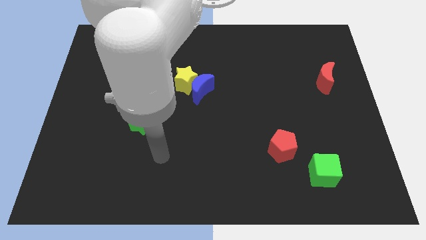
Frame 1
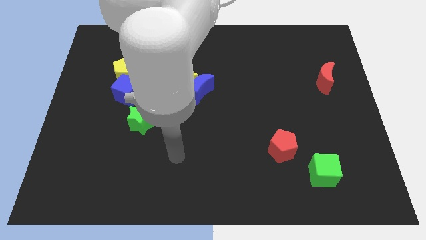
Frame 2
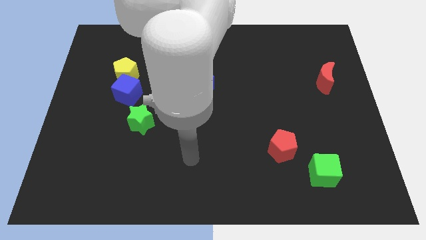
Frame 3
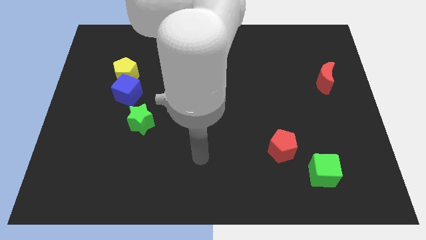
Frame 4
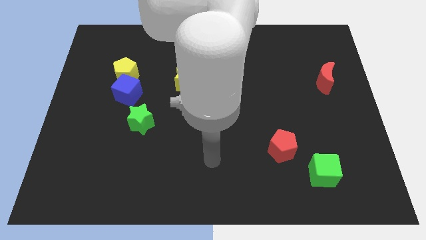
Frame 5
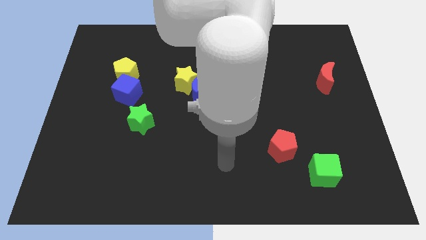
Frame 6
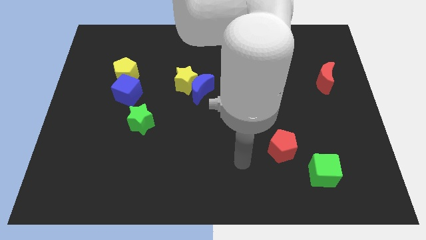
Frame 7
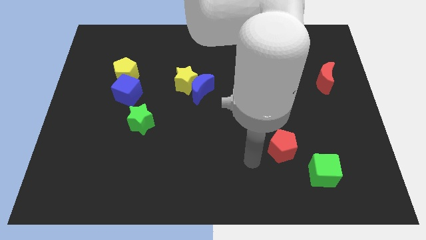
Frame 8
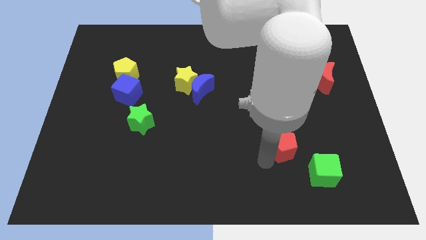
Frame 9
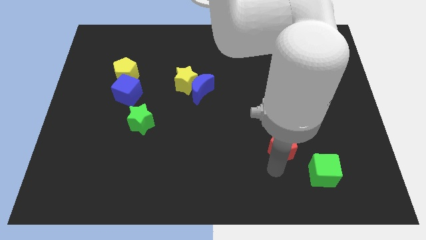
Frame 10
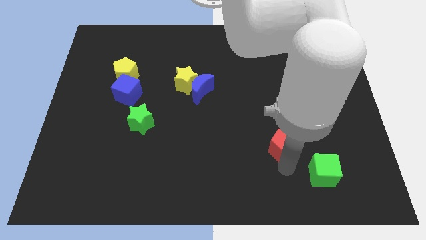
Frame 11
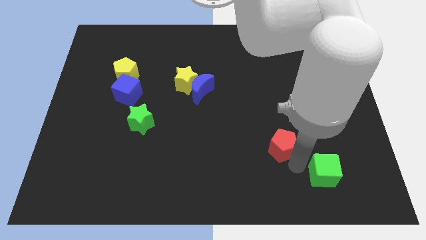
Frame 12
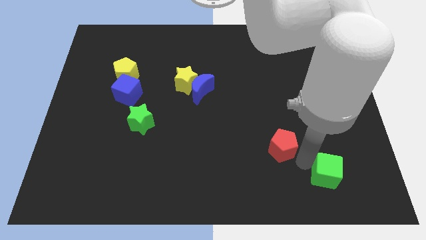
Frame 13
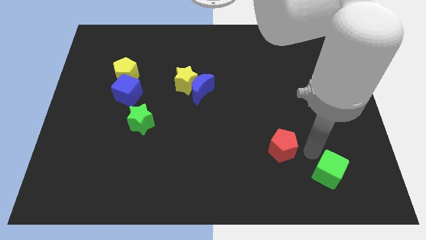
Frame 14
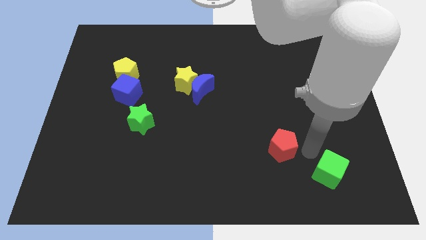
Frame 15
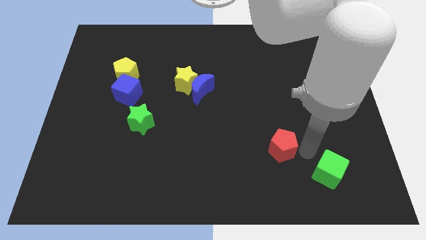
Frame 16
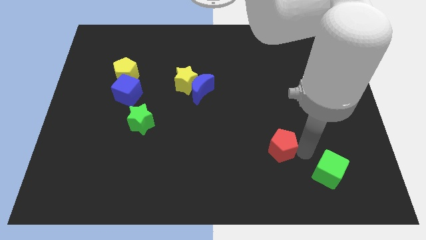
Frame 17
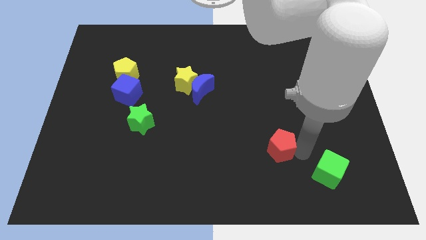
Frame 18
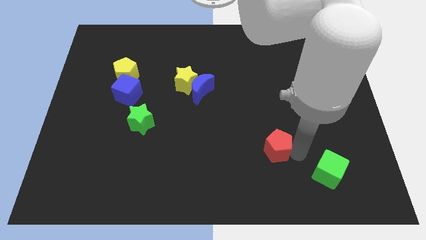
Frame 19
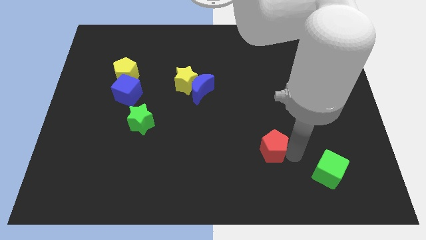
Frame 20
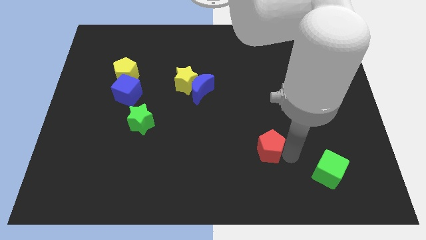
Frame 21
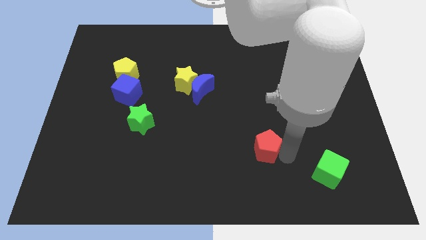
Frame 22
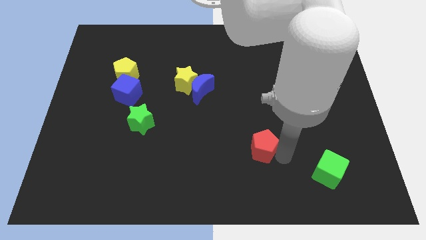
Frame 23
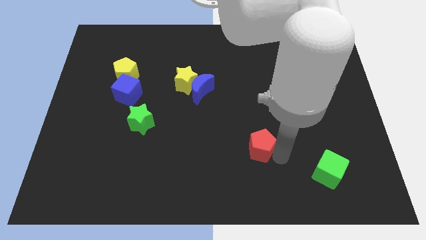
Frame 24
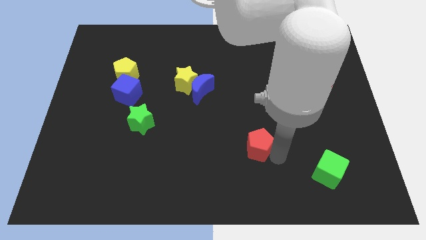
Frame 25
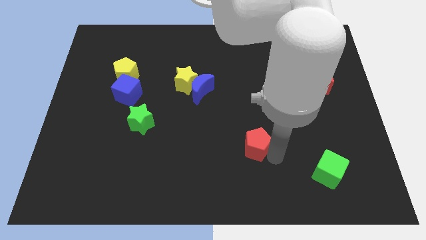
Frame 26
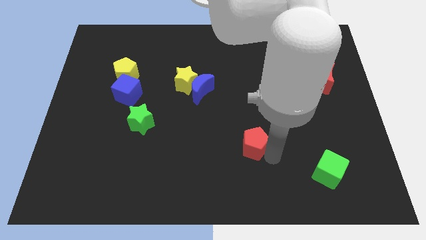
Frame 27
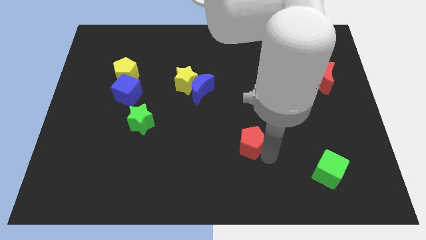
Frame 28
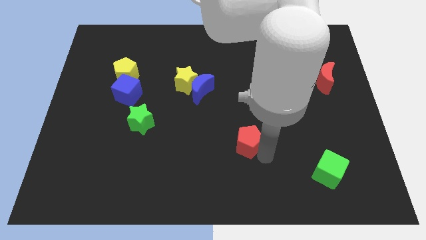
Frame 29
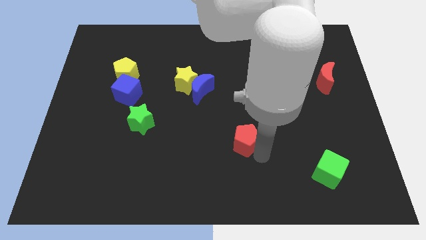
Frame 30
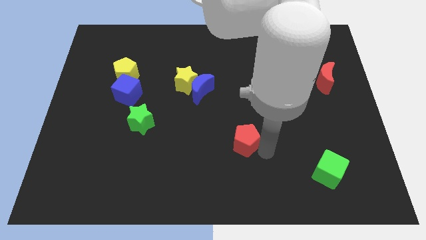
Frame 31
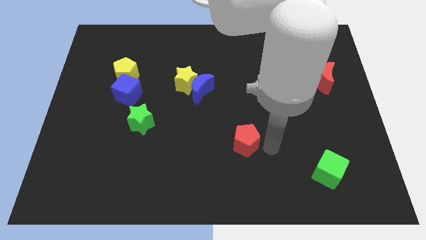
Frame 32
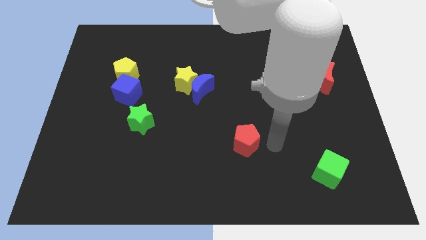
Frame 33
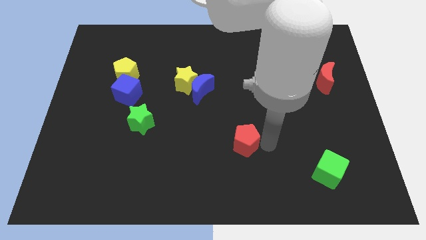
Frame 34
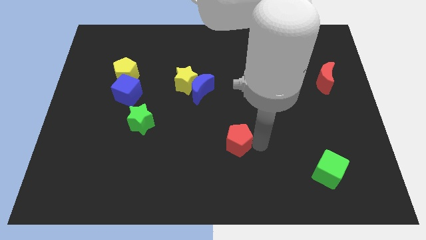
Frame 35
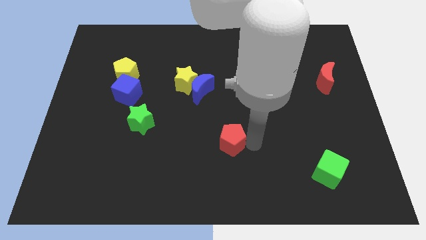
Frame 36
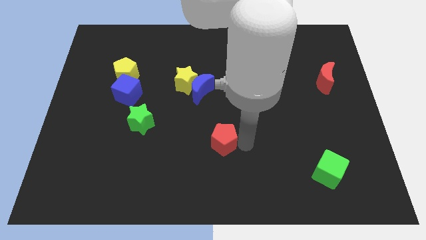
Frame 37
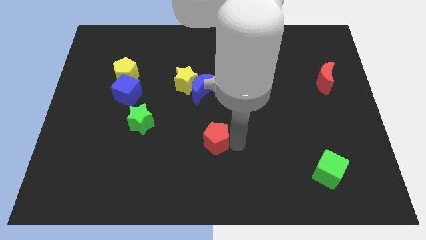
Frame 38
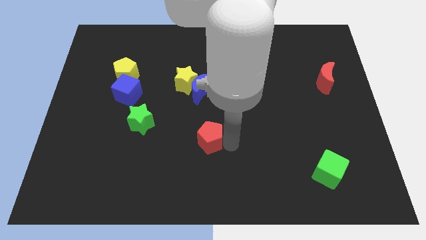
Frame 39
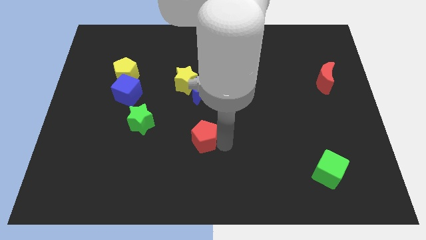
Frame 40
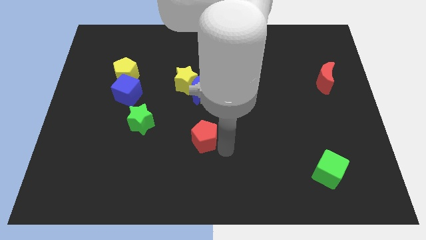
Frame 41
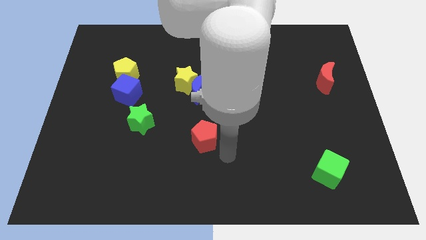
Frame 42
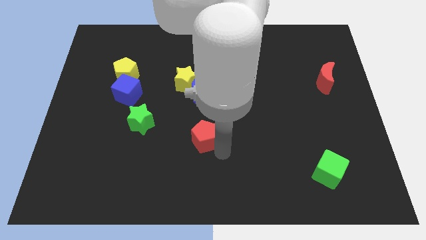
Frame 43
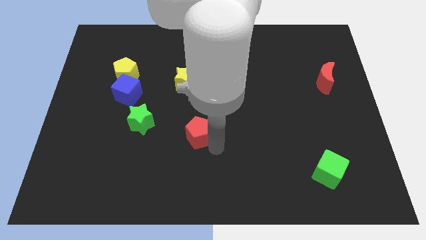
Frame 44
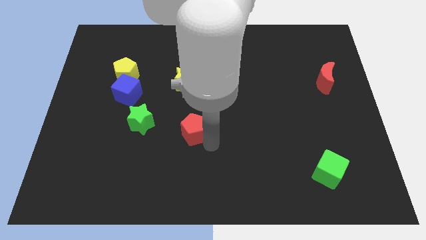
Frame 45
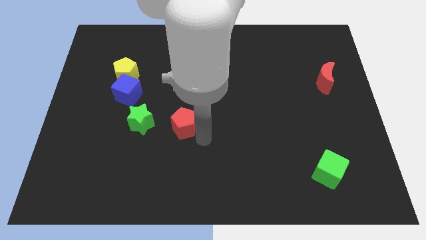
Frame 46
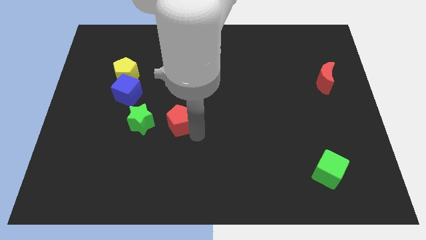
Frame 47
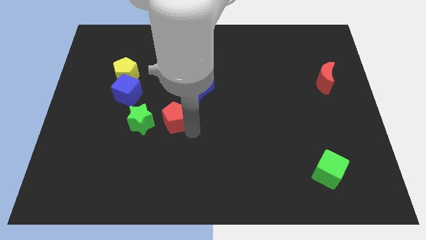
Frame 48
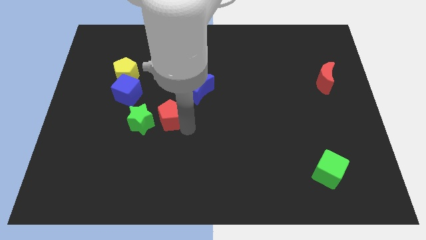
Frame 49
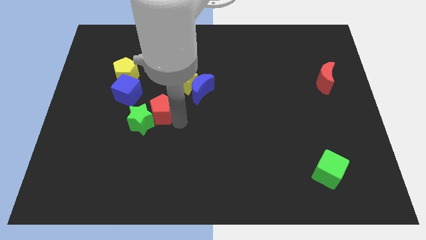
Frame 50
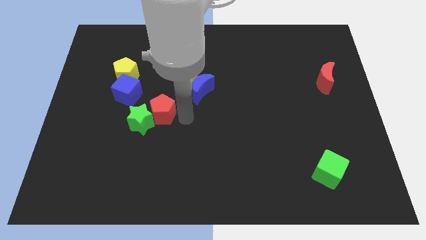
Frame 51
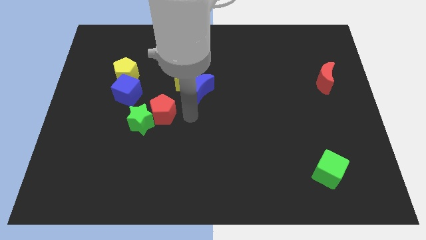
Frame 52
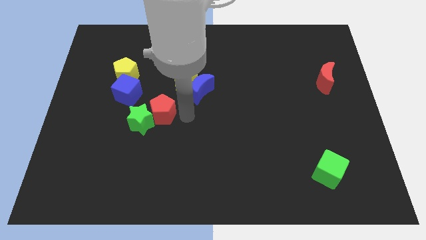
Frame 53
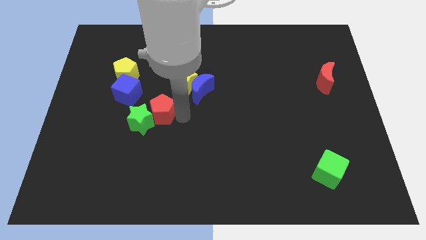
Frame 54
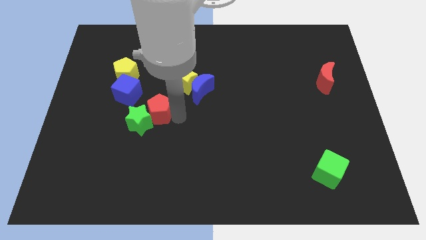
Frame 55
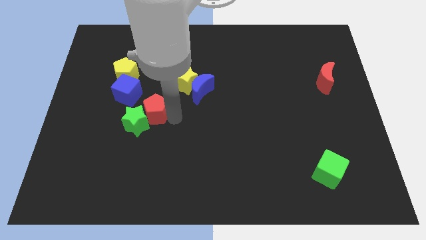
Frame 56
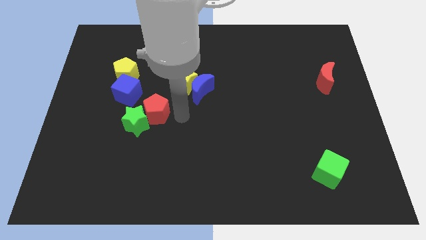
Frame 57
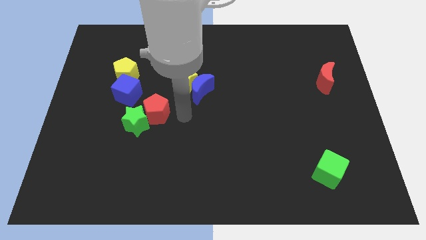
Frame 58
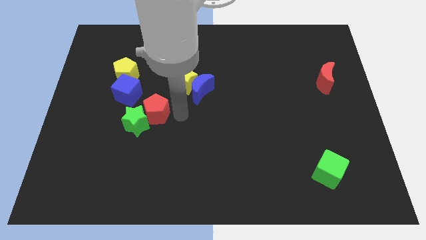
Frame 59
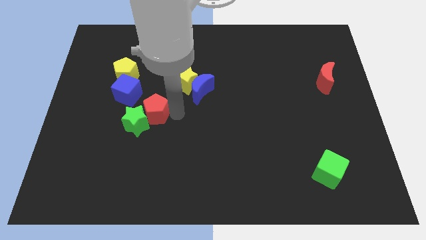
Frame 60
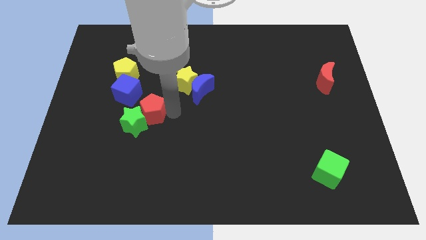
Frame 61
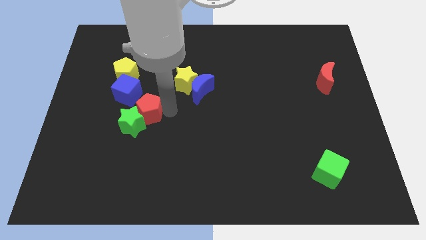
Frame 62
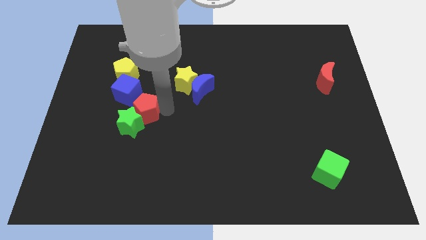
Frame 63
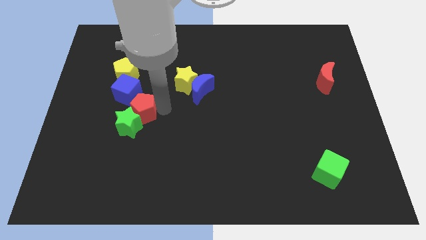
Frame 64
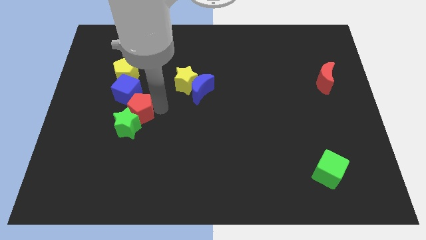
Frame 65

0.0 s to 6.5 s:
move the red pentagon to the bottom side of the yellow pentagon
